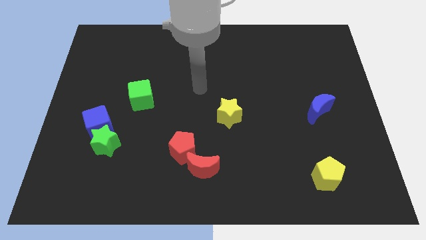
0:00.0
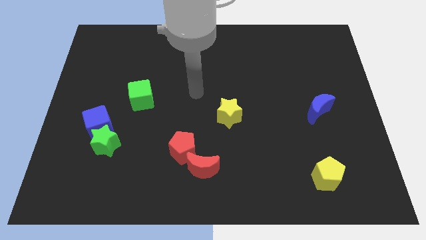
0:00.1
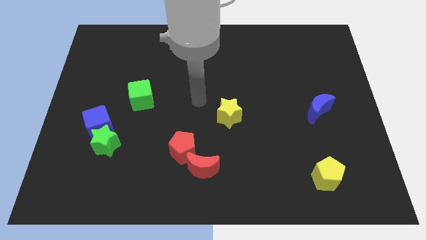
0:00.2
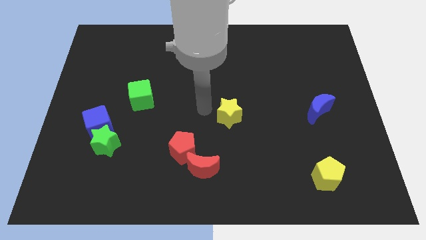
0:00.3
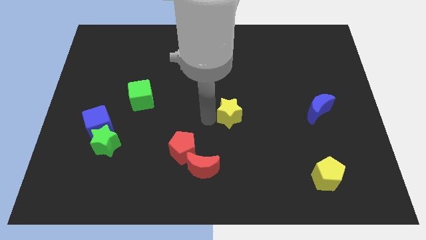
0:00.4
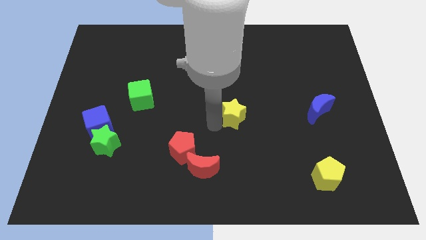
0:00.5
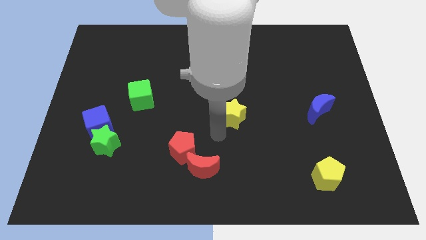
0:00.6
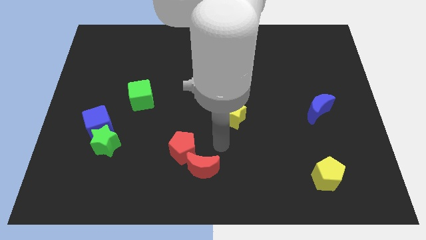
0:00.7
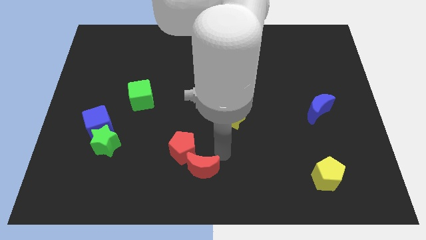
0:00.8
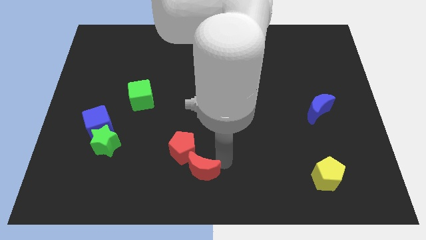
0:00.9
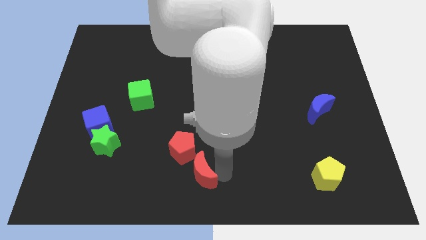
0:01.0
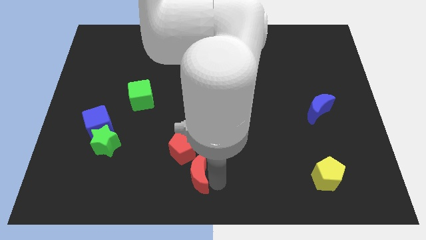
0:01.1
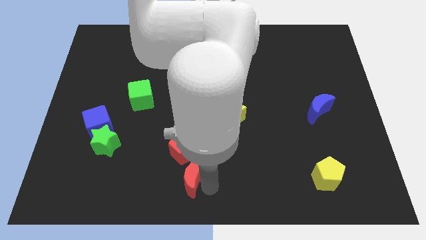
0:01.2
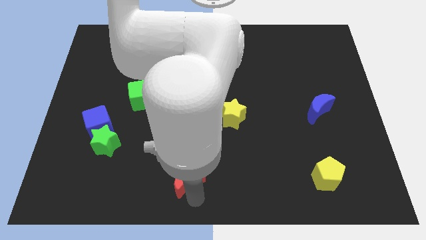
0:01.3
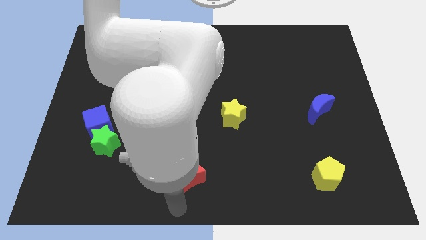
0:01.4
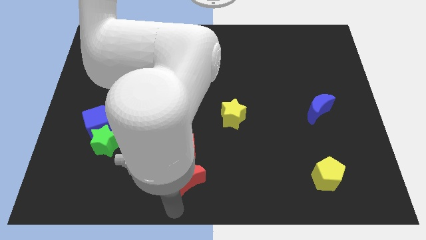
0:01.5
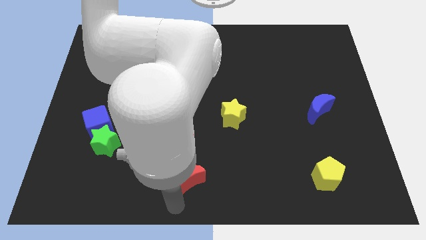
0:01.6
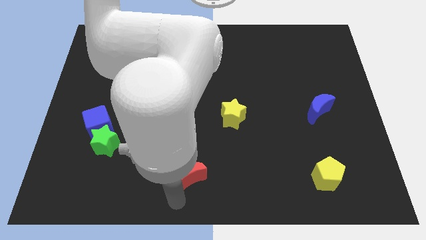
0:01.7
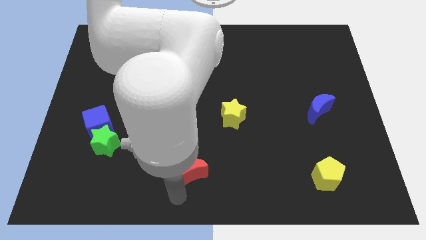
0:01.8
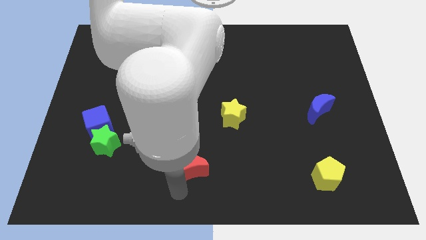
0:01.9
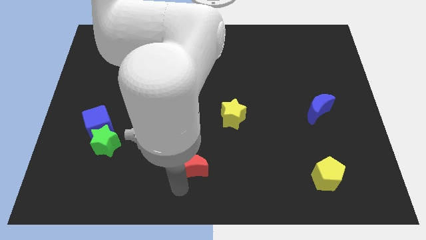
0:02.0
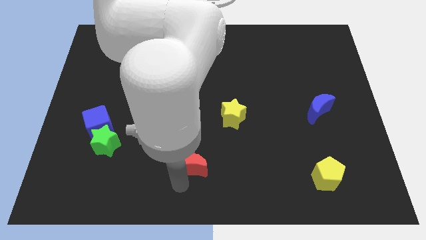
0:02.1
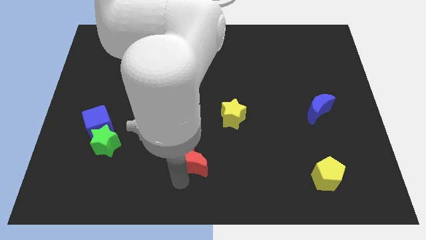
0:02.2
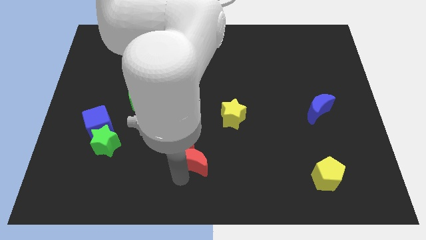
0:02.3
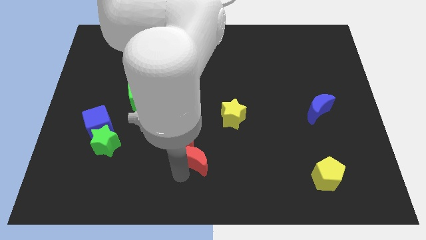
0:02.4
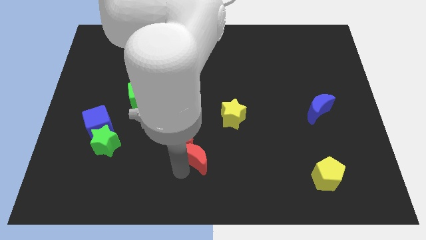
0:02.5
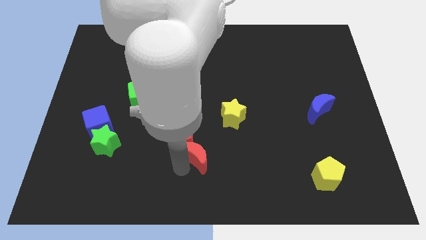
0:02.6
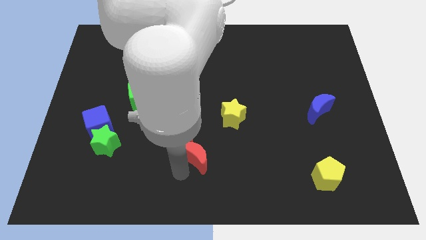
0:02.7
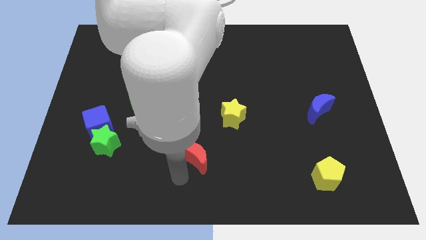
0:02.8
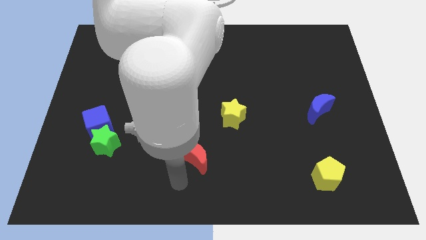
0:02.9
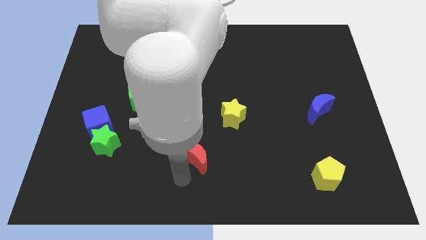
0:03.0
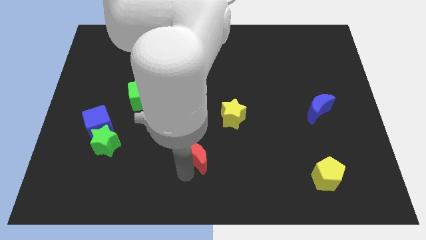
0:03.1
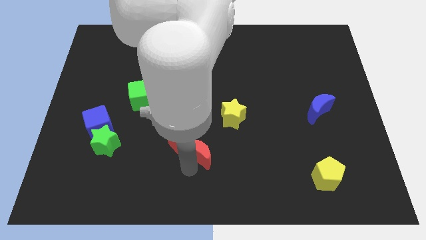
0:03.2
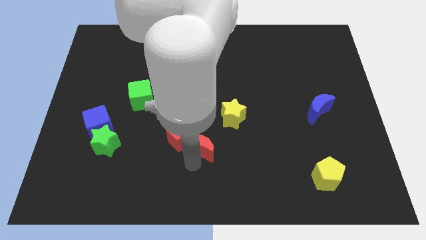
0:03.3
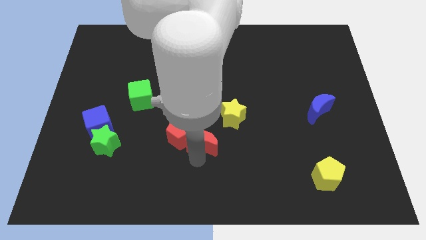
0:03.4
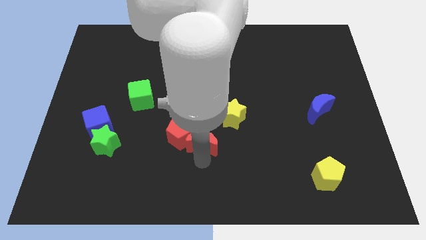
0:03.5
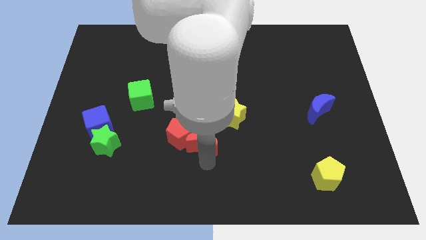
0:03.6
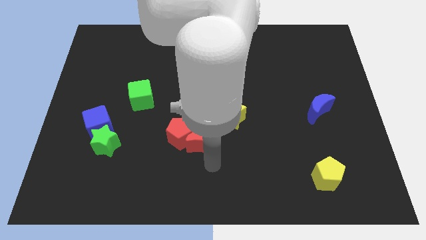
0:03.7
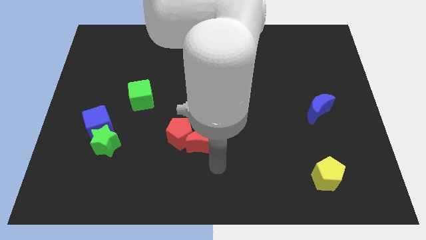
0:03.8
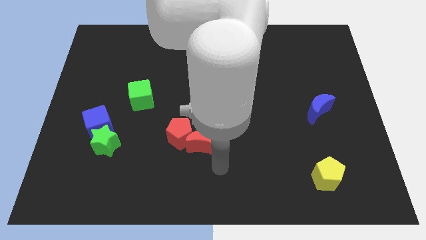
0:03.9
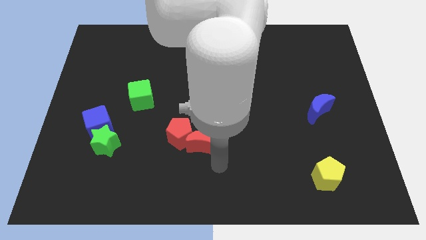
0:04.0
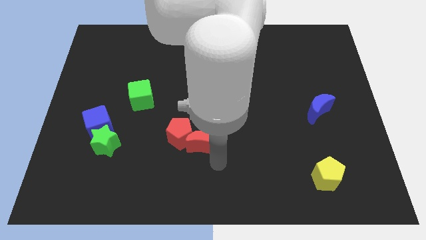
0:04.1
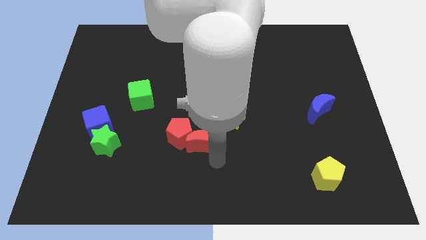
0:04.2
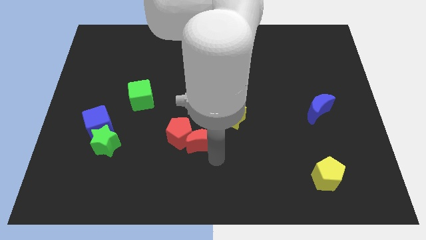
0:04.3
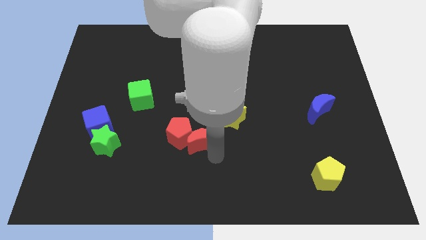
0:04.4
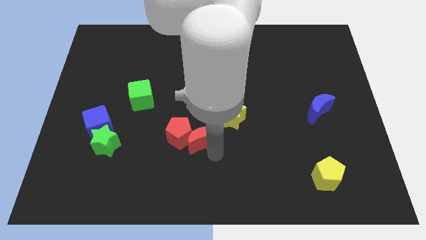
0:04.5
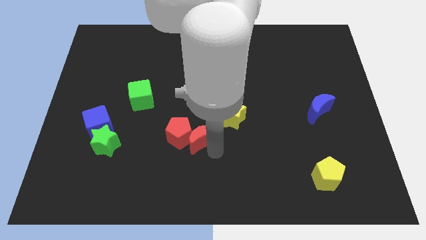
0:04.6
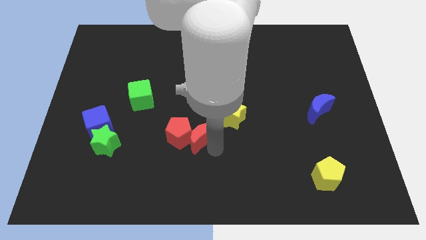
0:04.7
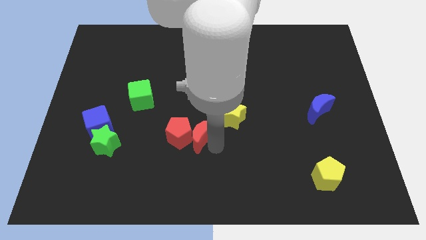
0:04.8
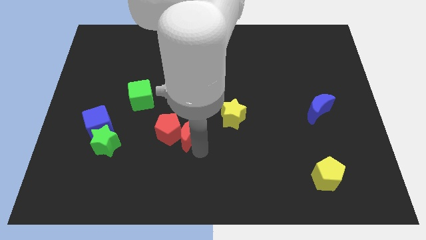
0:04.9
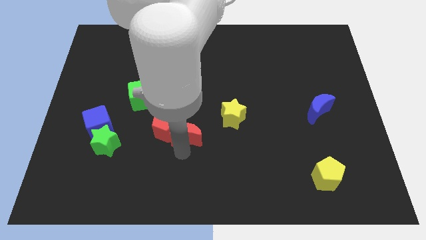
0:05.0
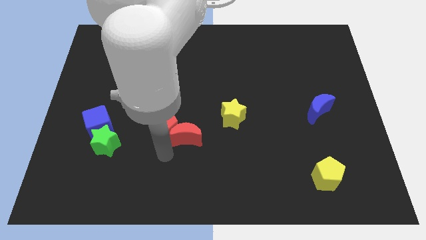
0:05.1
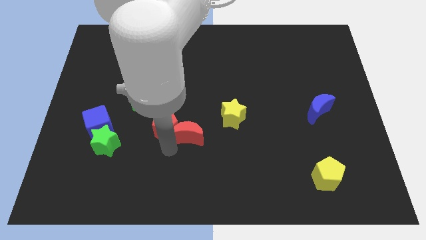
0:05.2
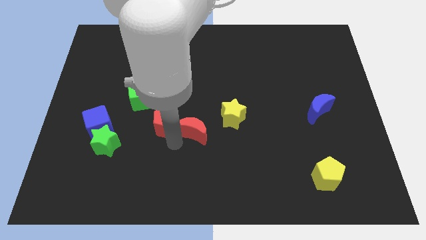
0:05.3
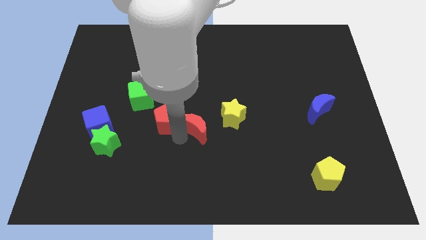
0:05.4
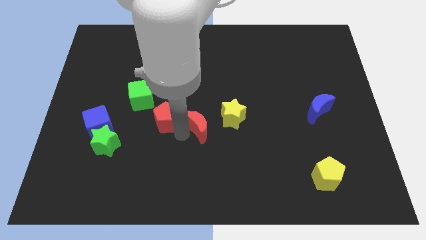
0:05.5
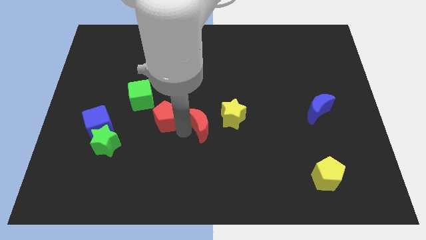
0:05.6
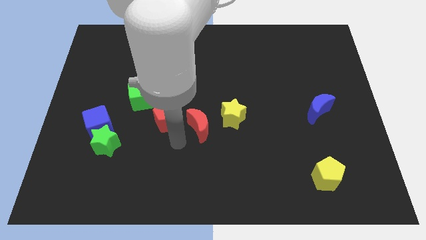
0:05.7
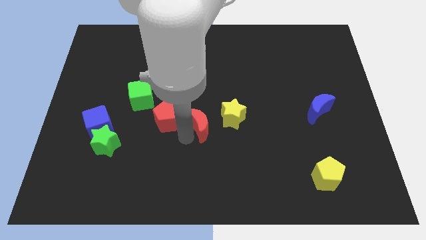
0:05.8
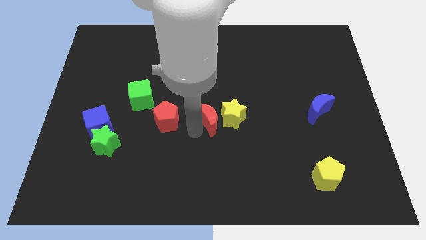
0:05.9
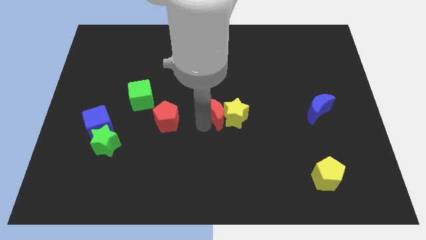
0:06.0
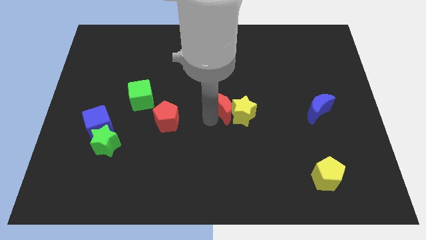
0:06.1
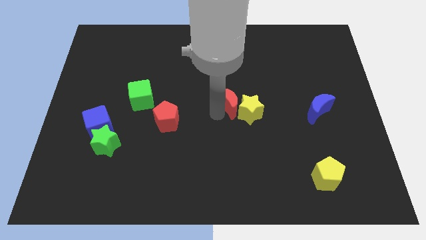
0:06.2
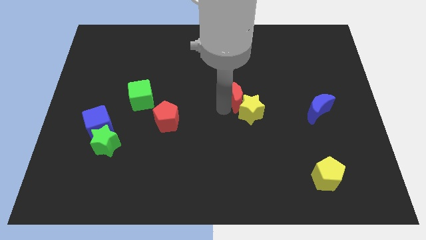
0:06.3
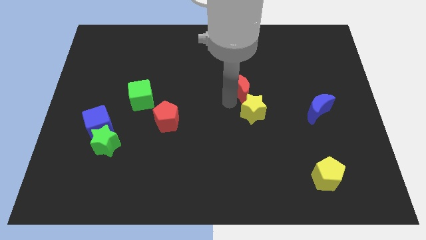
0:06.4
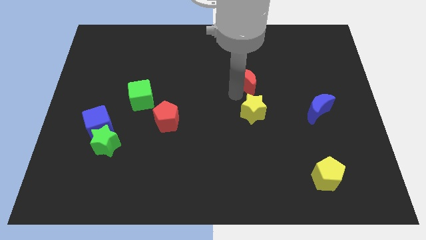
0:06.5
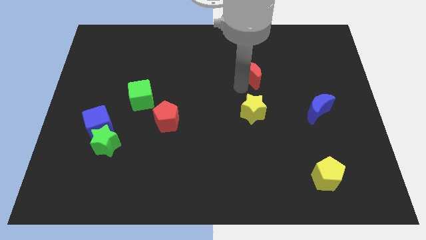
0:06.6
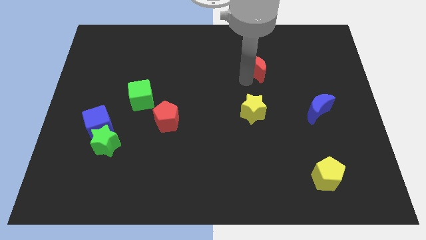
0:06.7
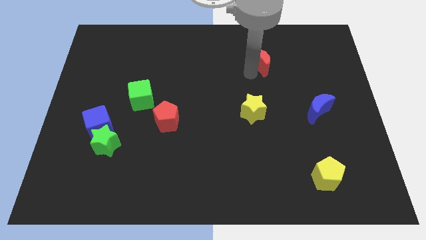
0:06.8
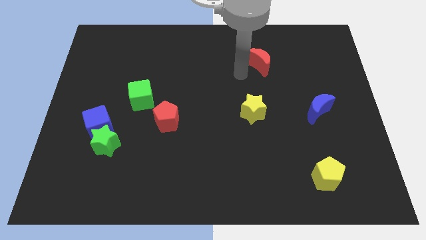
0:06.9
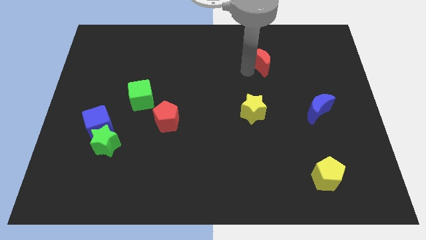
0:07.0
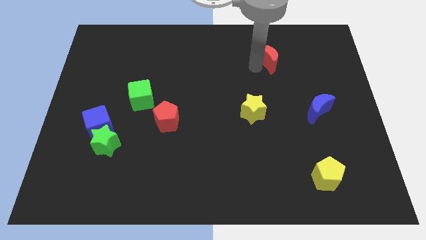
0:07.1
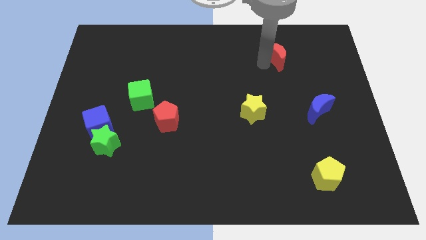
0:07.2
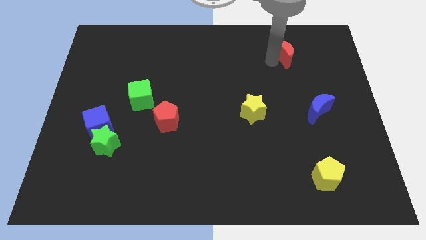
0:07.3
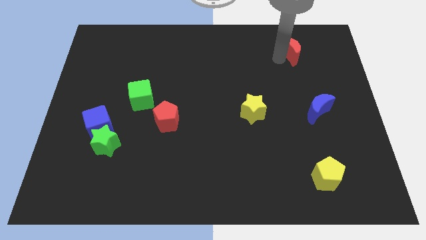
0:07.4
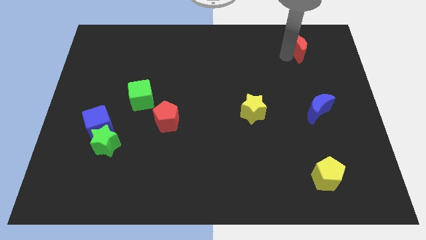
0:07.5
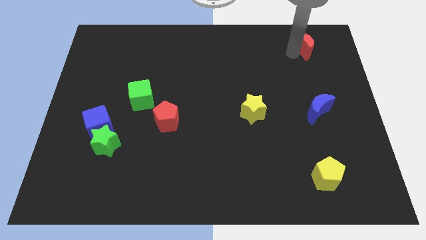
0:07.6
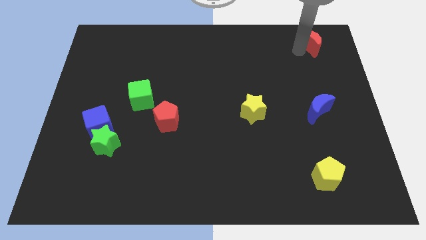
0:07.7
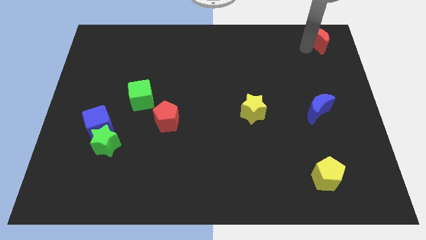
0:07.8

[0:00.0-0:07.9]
push the red moon to the top right corner
